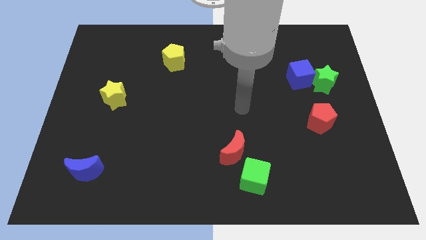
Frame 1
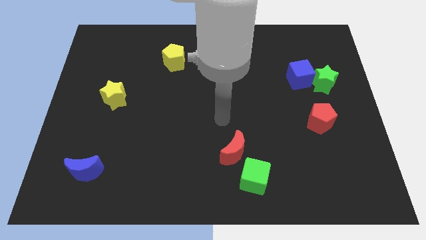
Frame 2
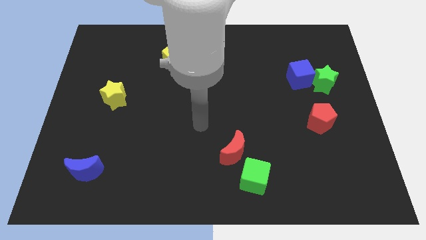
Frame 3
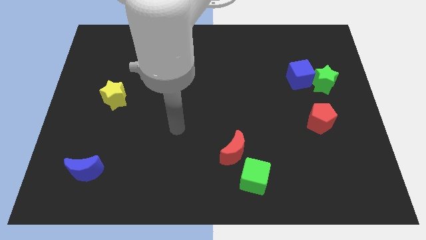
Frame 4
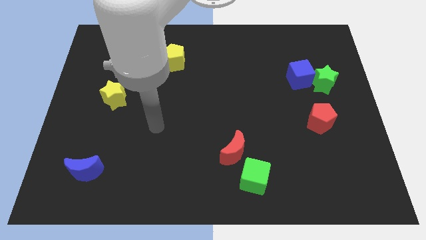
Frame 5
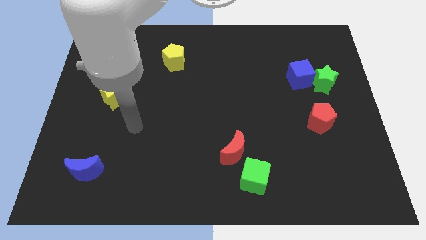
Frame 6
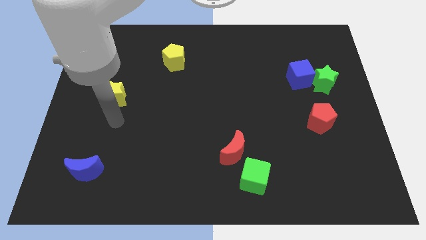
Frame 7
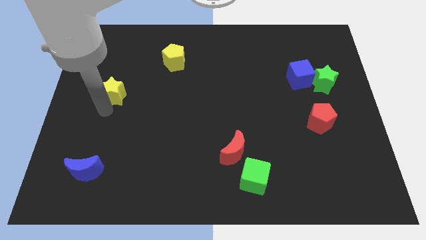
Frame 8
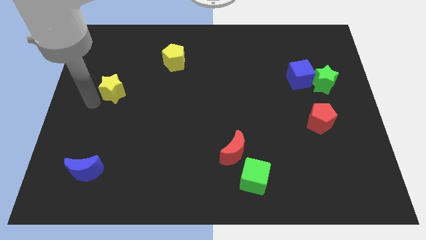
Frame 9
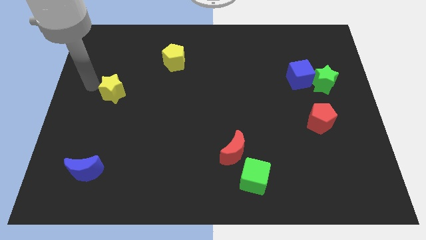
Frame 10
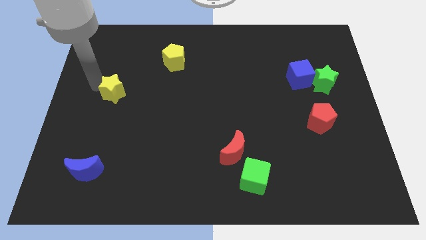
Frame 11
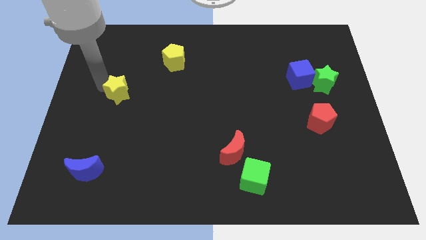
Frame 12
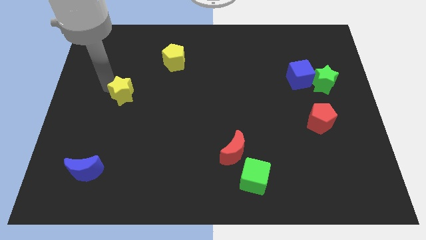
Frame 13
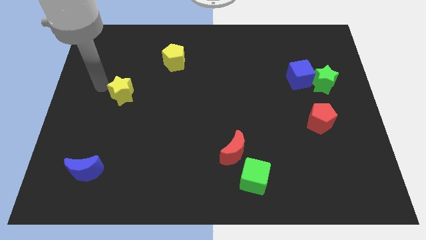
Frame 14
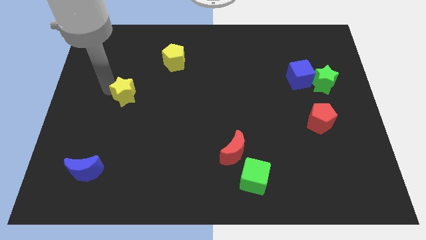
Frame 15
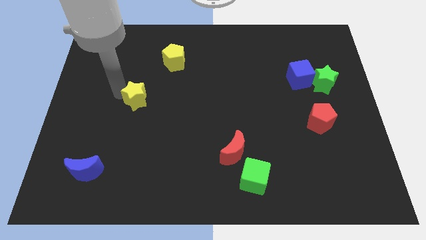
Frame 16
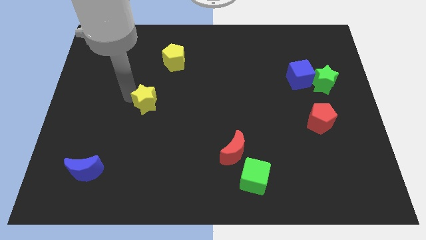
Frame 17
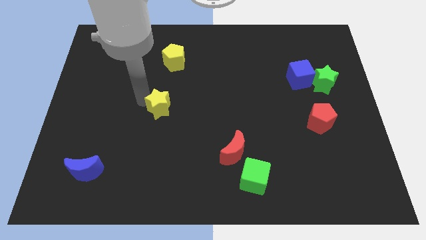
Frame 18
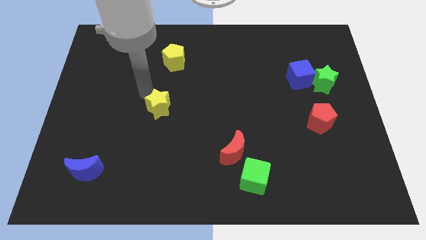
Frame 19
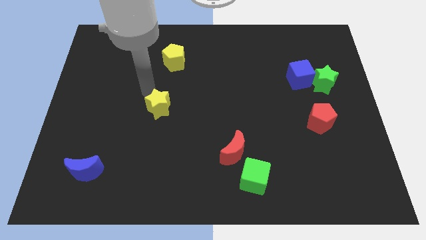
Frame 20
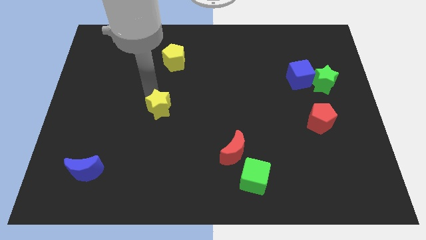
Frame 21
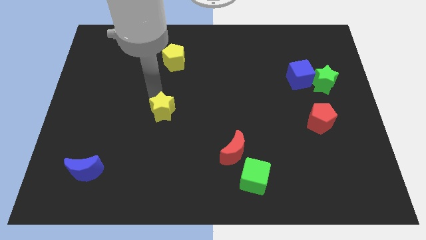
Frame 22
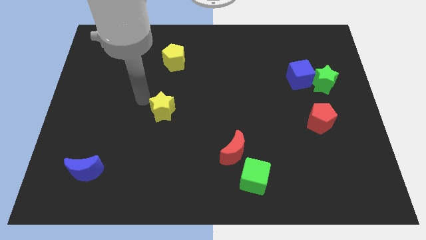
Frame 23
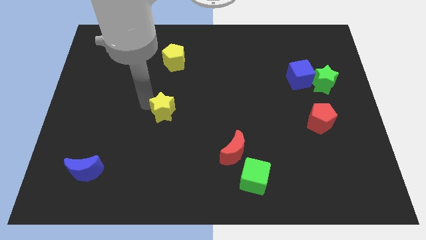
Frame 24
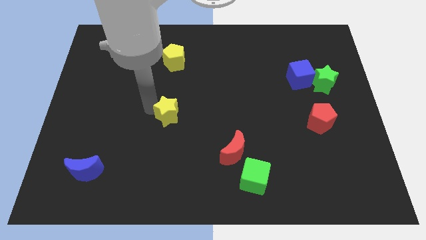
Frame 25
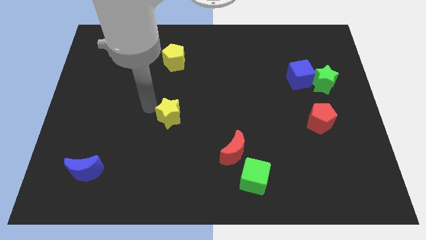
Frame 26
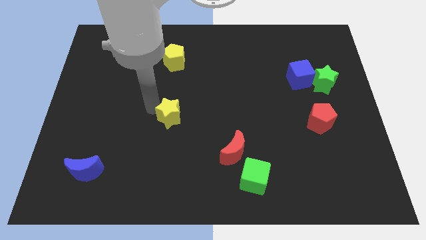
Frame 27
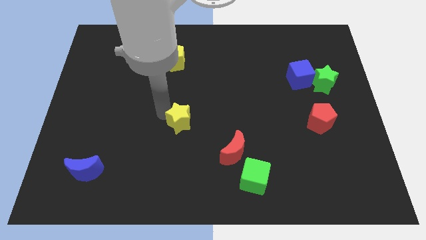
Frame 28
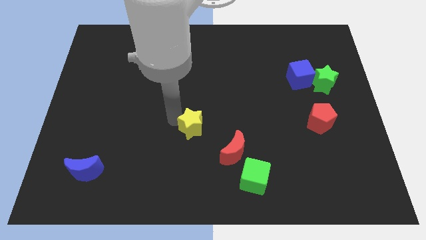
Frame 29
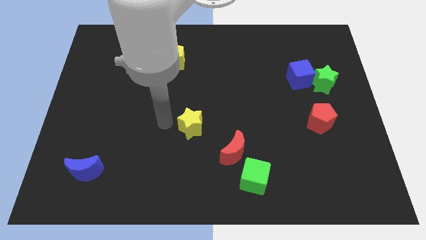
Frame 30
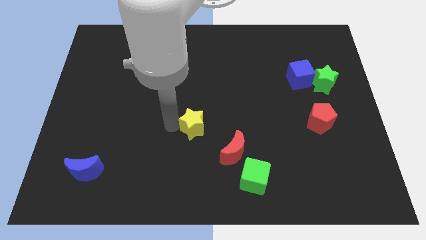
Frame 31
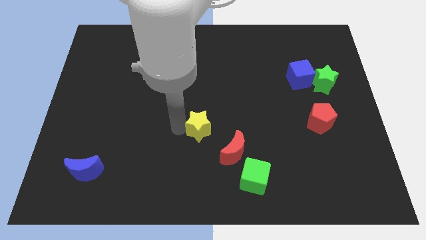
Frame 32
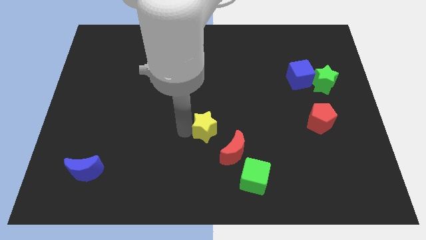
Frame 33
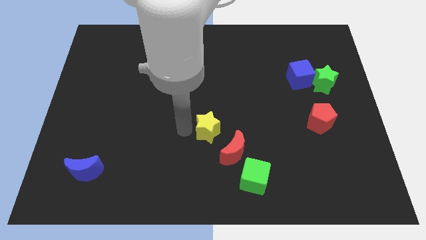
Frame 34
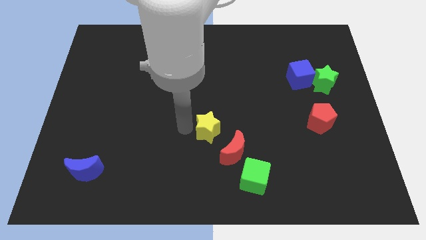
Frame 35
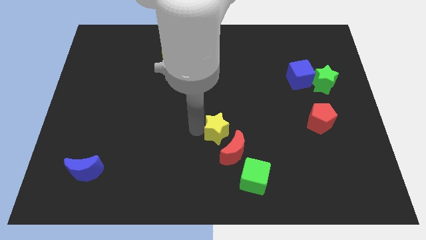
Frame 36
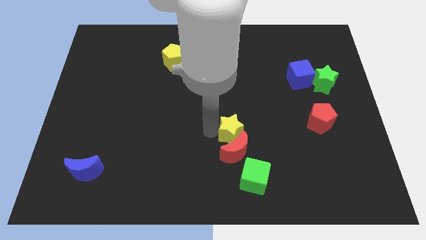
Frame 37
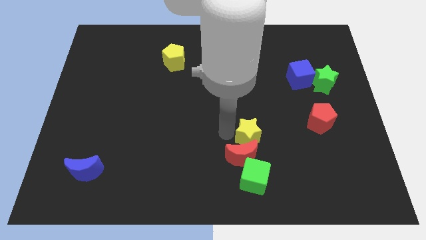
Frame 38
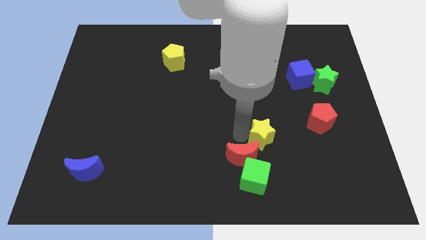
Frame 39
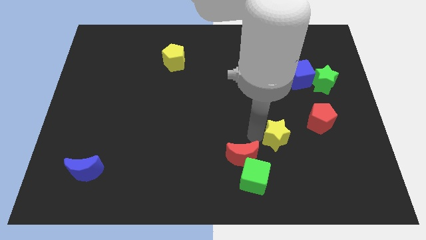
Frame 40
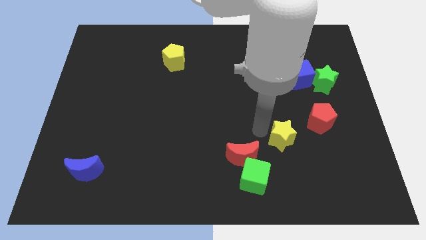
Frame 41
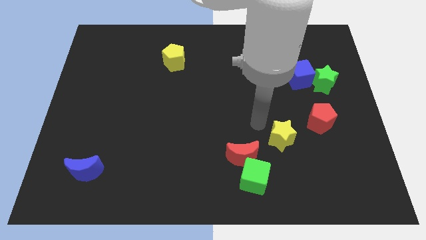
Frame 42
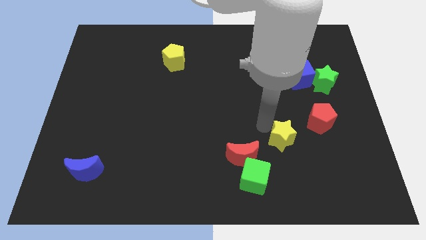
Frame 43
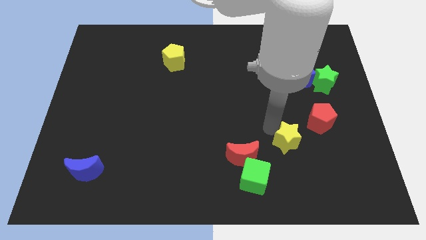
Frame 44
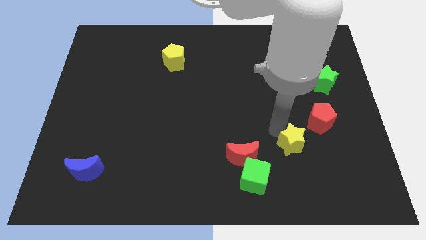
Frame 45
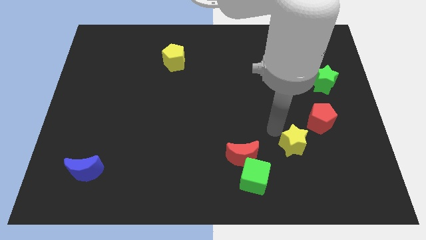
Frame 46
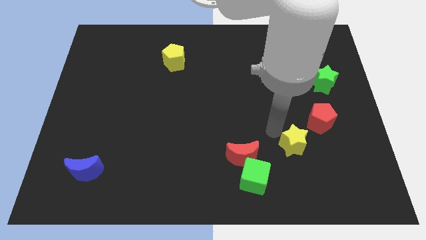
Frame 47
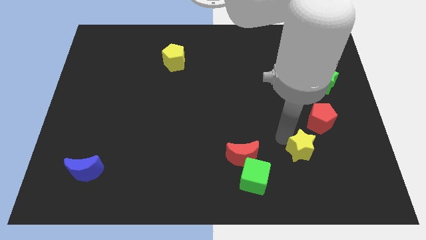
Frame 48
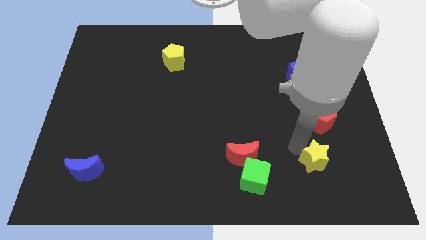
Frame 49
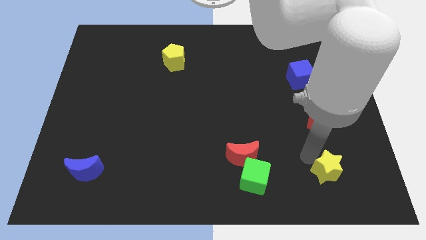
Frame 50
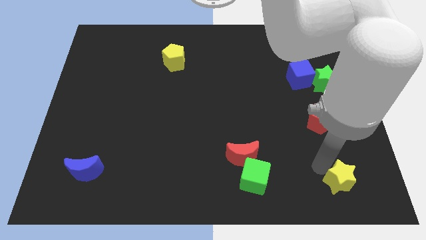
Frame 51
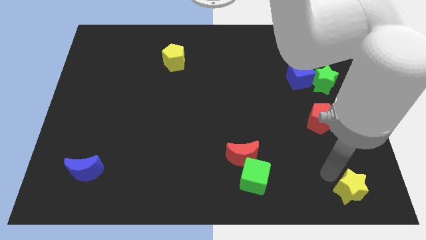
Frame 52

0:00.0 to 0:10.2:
slide the yellow star to the lower right corner

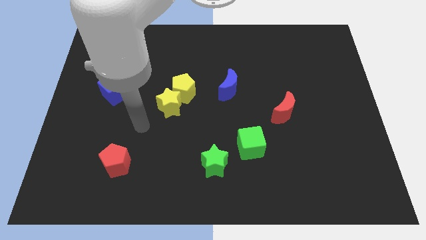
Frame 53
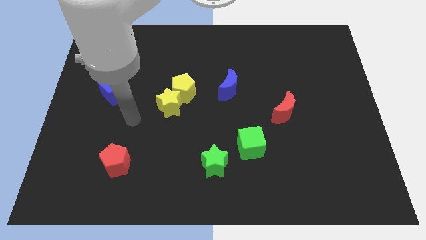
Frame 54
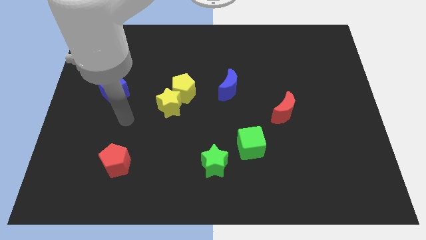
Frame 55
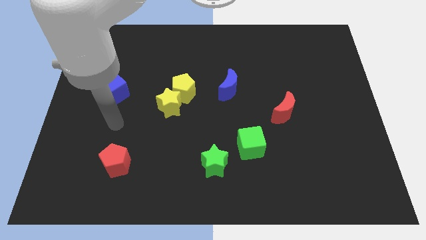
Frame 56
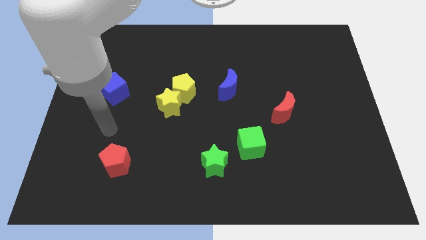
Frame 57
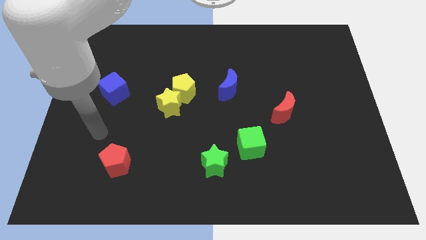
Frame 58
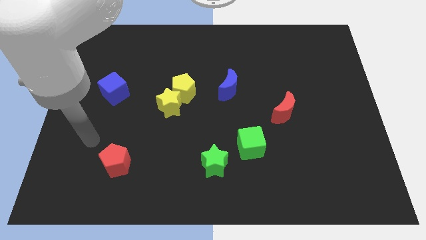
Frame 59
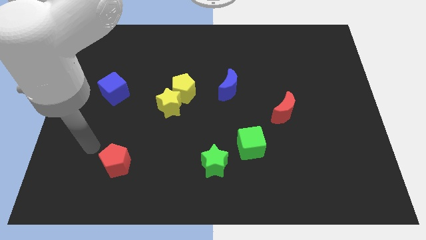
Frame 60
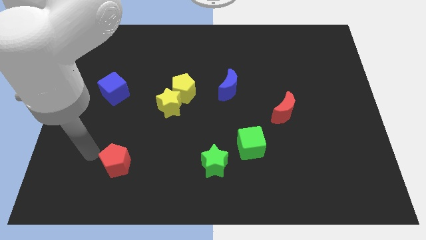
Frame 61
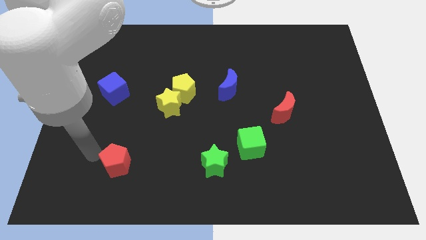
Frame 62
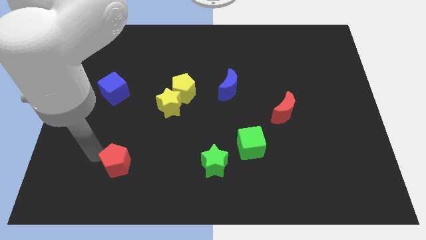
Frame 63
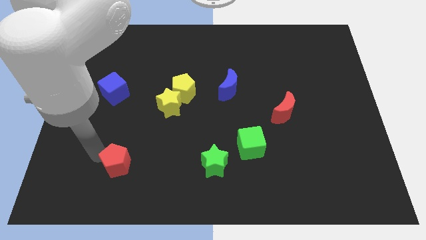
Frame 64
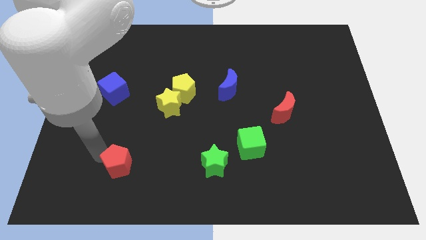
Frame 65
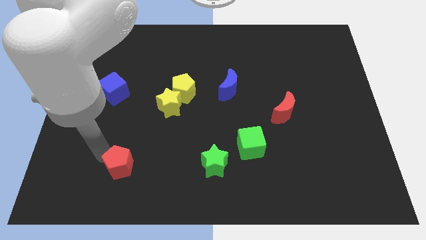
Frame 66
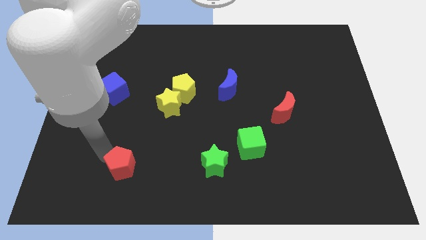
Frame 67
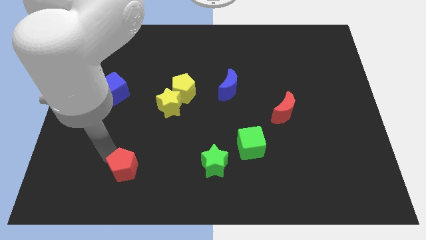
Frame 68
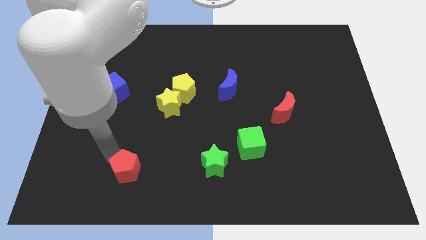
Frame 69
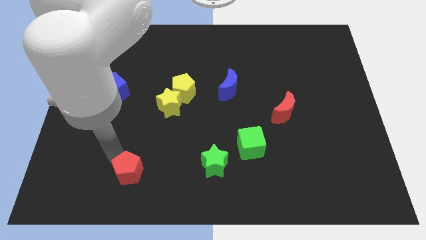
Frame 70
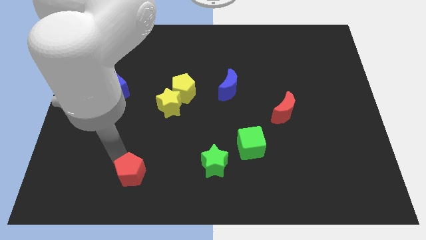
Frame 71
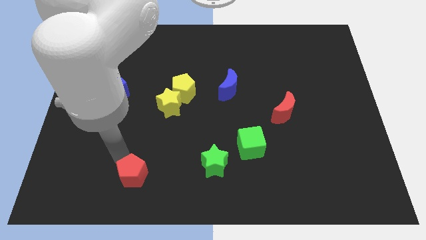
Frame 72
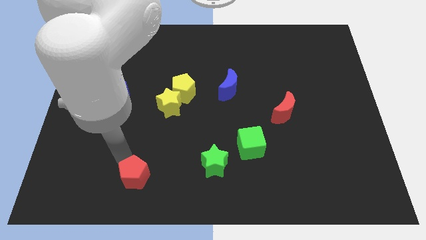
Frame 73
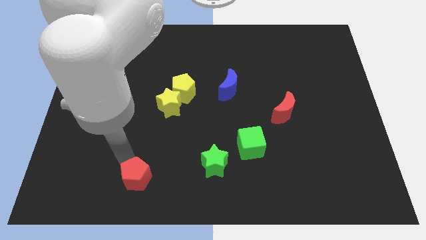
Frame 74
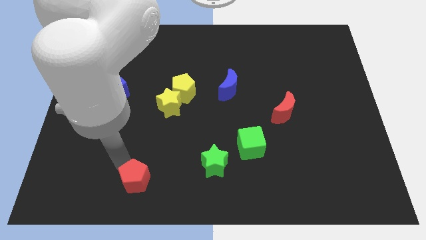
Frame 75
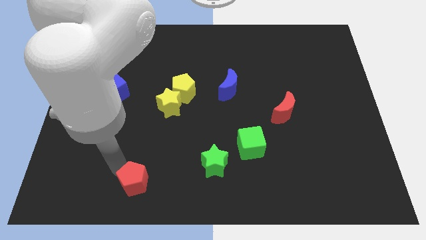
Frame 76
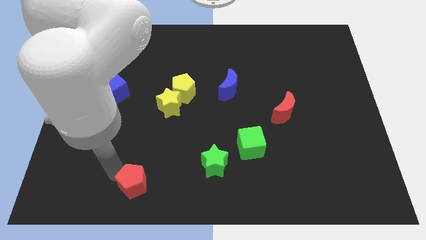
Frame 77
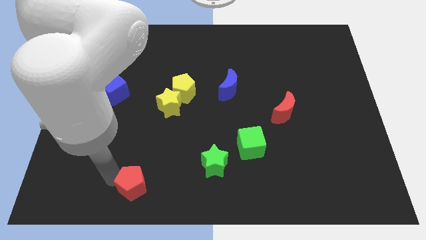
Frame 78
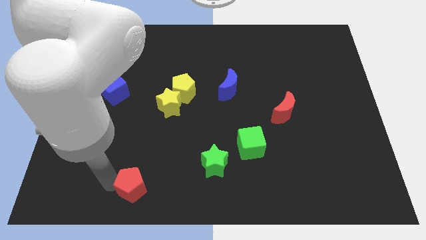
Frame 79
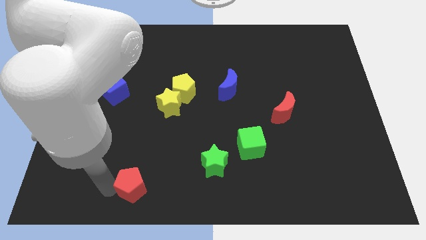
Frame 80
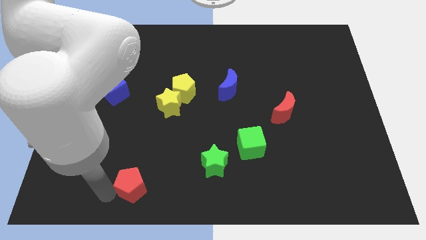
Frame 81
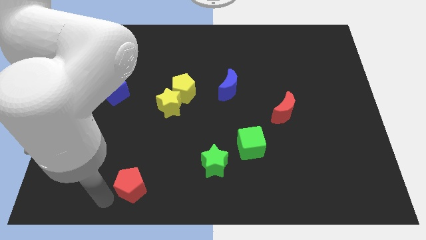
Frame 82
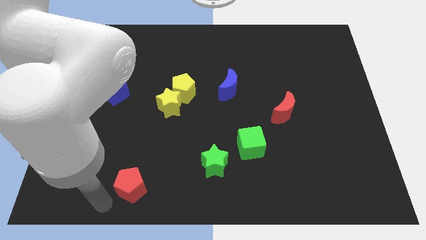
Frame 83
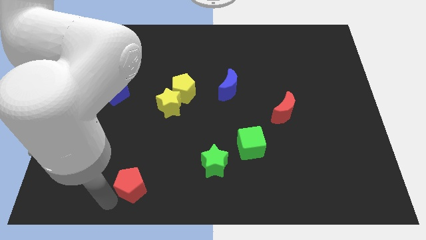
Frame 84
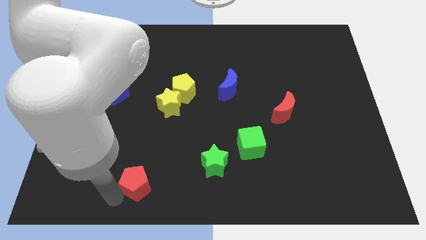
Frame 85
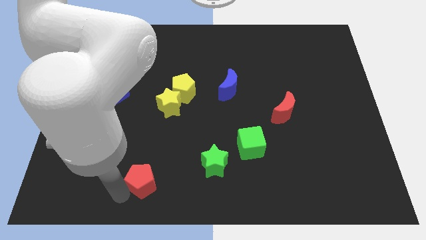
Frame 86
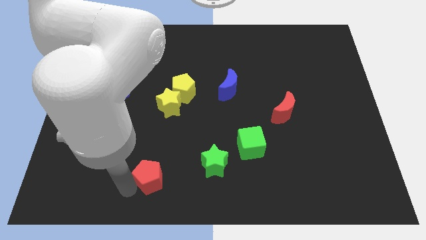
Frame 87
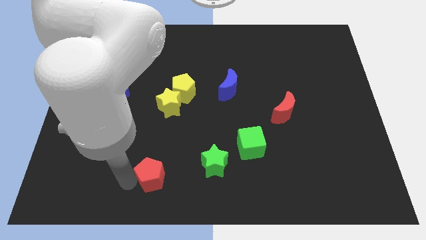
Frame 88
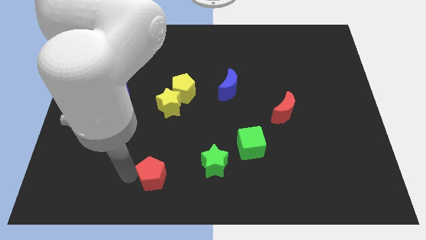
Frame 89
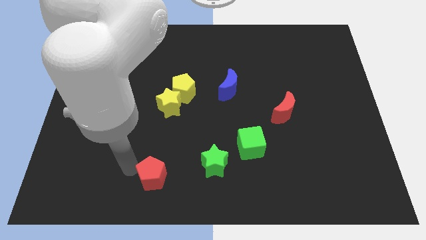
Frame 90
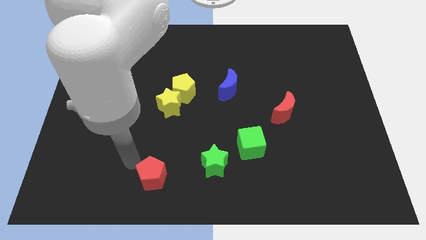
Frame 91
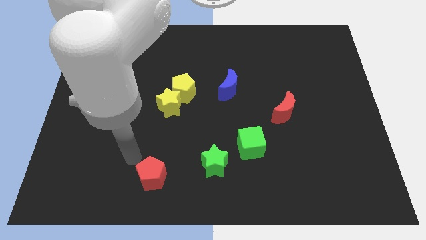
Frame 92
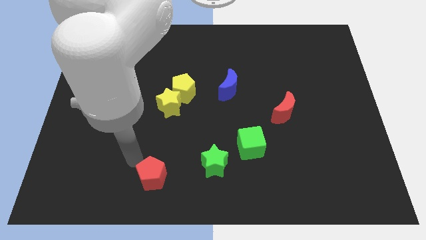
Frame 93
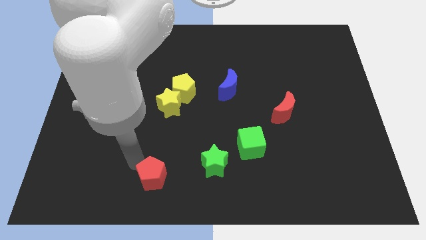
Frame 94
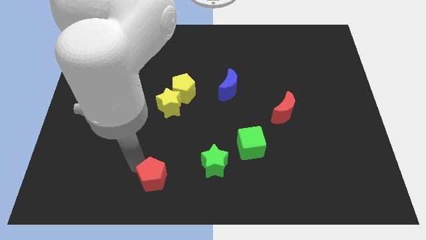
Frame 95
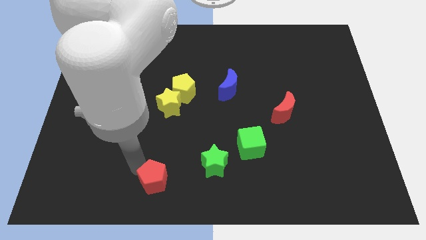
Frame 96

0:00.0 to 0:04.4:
push the red pentagon to the bottom side
